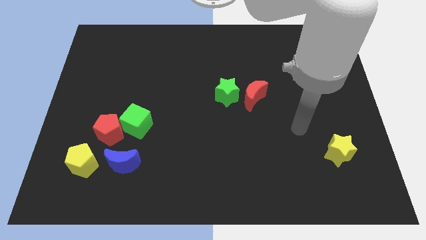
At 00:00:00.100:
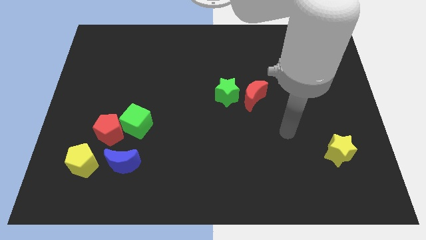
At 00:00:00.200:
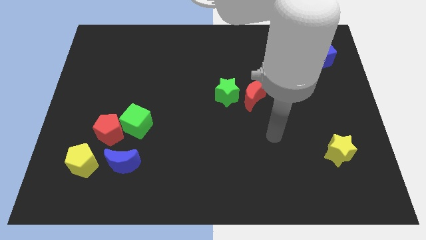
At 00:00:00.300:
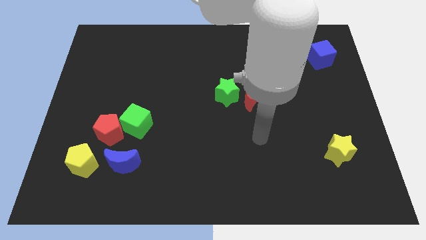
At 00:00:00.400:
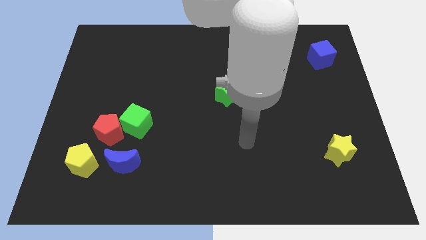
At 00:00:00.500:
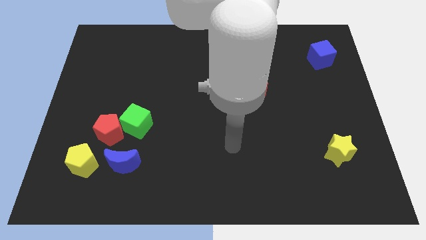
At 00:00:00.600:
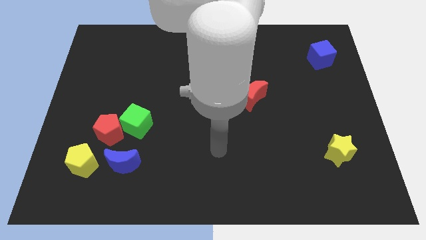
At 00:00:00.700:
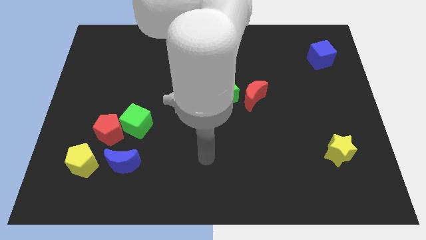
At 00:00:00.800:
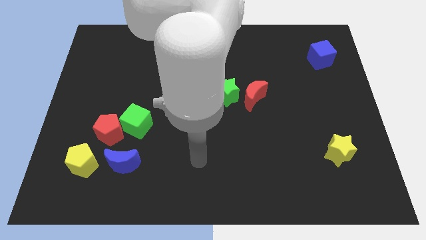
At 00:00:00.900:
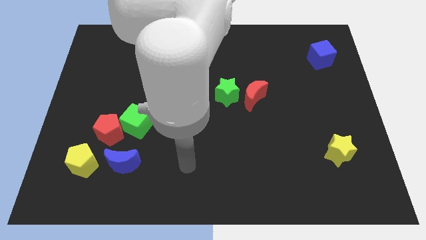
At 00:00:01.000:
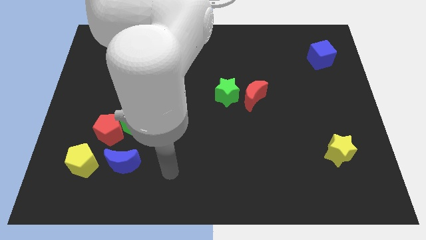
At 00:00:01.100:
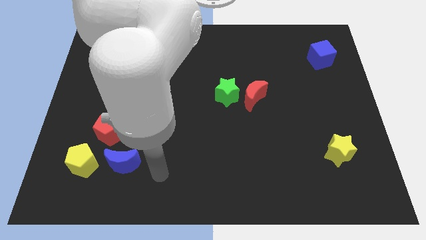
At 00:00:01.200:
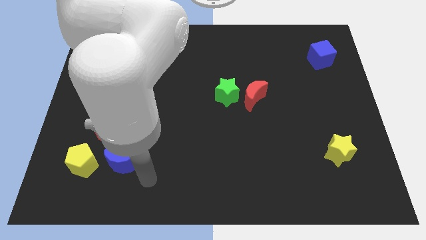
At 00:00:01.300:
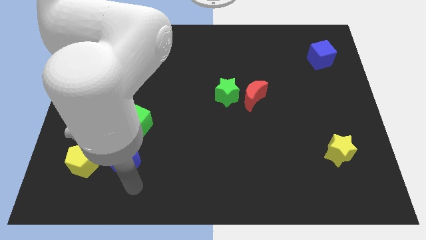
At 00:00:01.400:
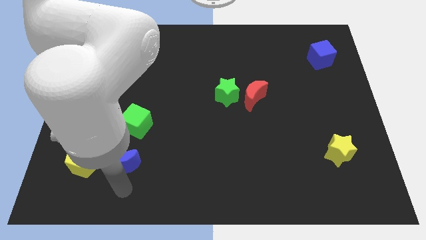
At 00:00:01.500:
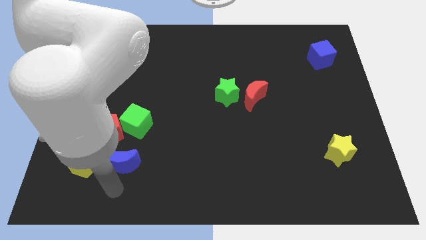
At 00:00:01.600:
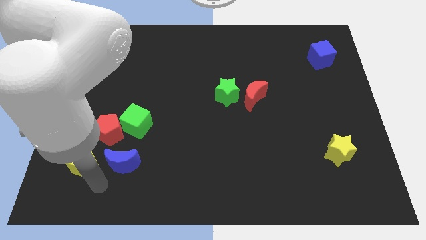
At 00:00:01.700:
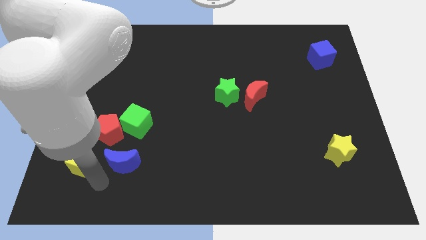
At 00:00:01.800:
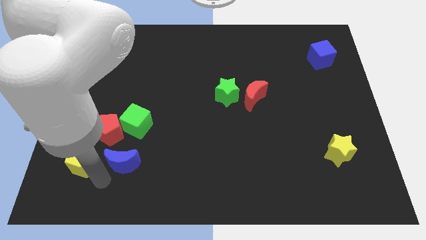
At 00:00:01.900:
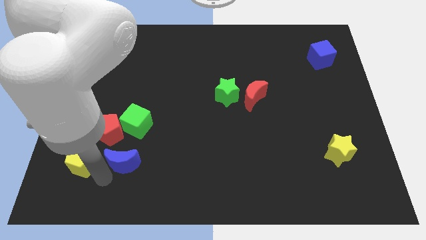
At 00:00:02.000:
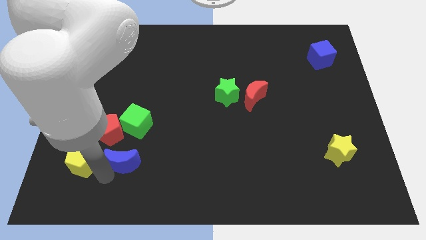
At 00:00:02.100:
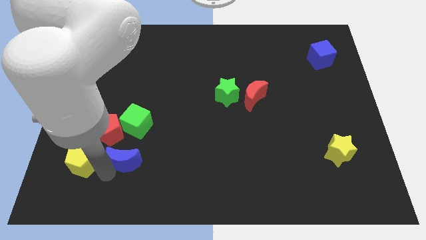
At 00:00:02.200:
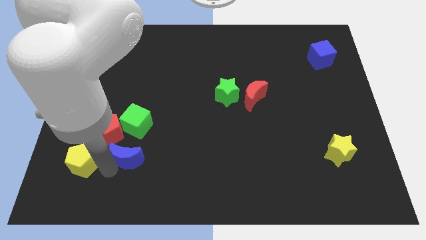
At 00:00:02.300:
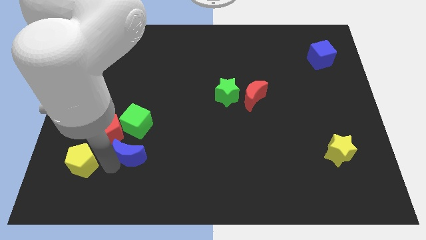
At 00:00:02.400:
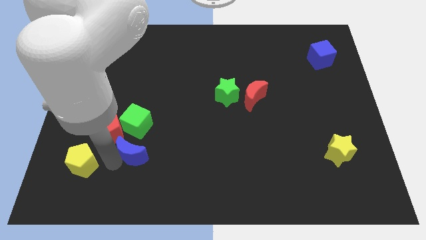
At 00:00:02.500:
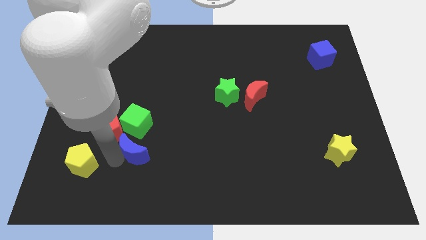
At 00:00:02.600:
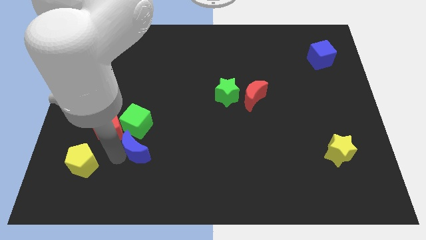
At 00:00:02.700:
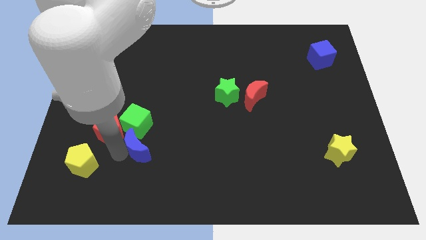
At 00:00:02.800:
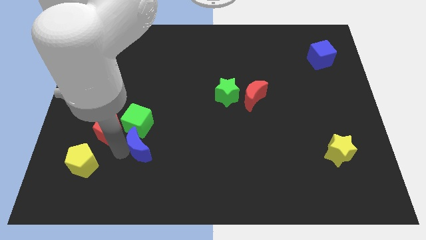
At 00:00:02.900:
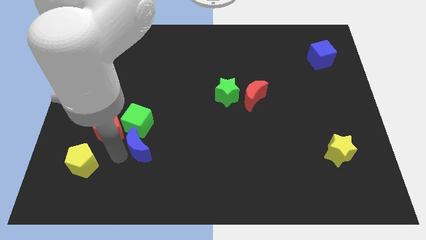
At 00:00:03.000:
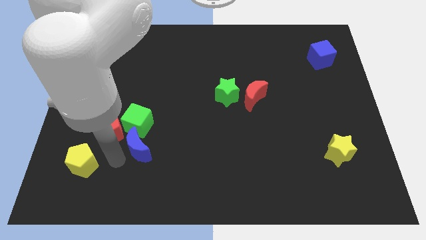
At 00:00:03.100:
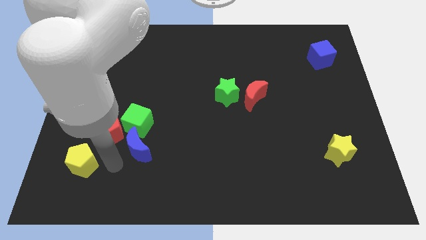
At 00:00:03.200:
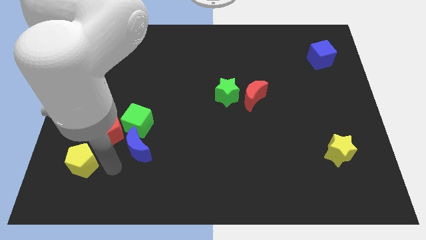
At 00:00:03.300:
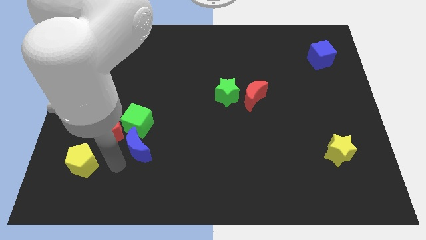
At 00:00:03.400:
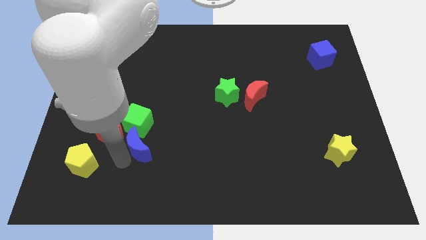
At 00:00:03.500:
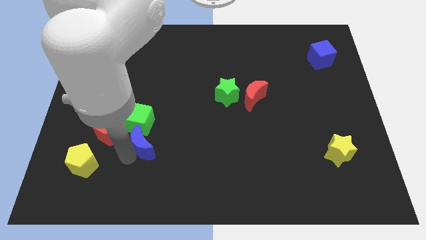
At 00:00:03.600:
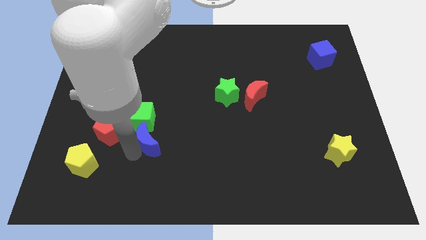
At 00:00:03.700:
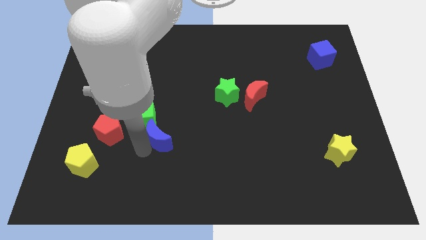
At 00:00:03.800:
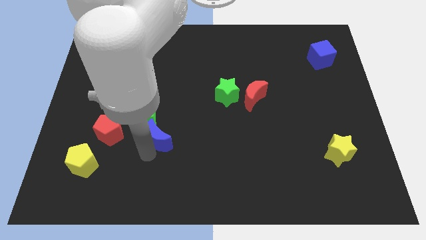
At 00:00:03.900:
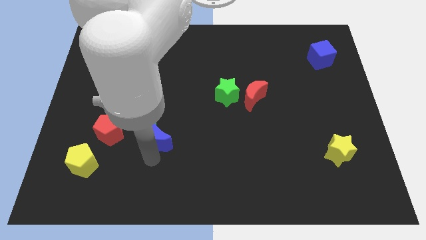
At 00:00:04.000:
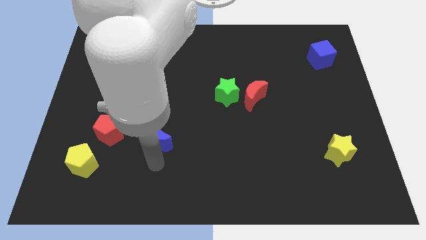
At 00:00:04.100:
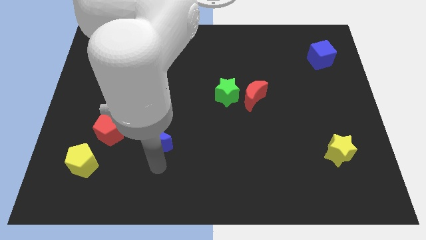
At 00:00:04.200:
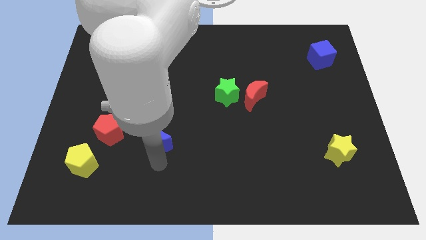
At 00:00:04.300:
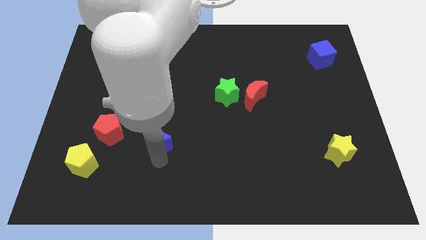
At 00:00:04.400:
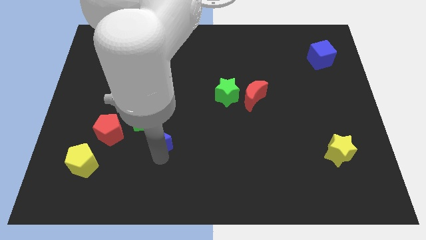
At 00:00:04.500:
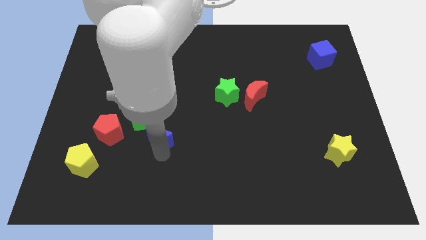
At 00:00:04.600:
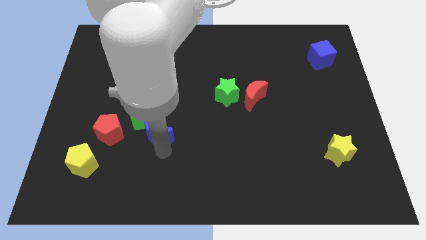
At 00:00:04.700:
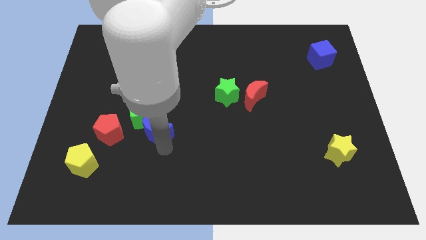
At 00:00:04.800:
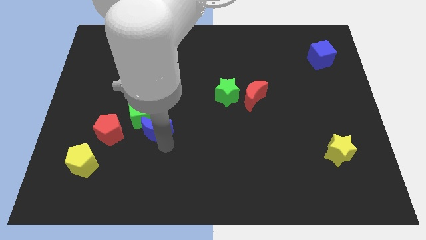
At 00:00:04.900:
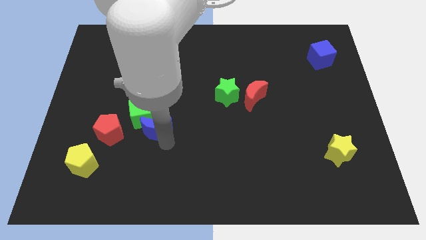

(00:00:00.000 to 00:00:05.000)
push the blue moon a little up

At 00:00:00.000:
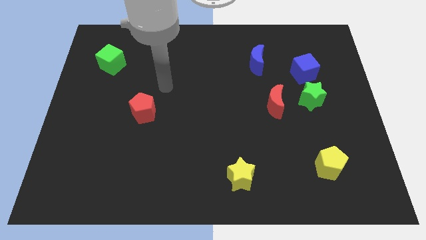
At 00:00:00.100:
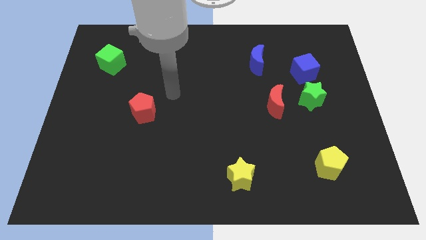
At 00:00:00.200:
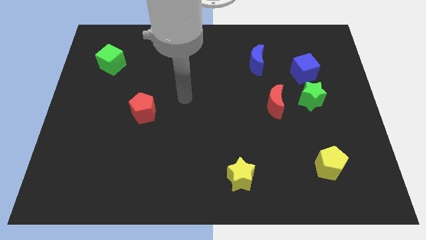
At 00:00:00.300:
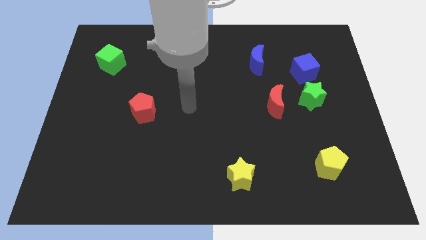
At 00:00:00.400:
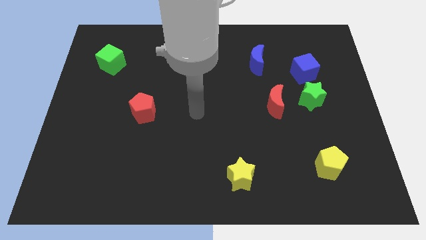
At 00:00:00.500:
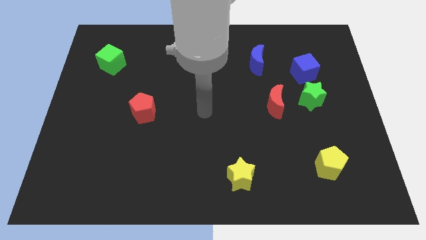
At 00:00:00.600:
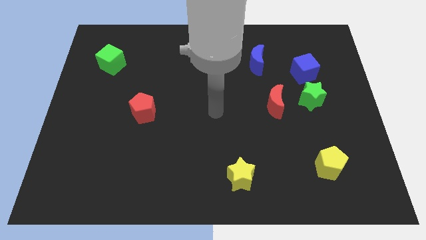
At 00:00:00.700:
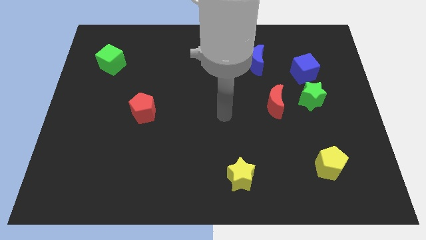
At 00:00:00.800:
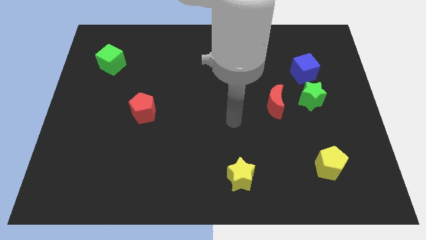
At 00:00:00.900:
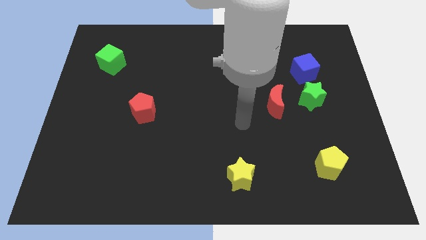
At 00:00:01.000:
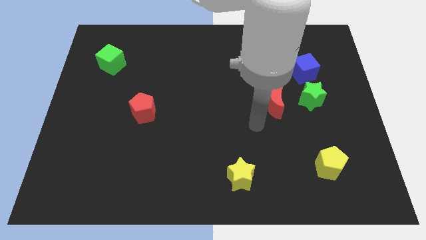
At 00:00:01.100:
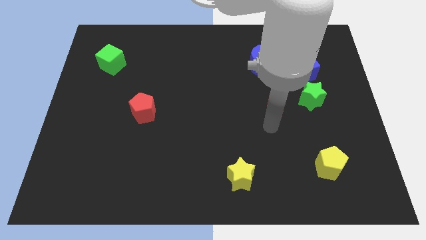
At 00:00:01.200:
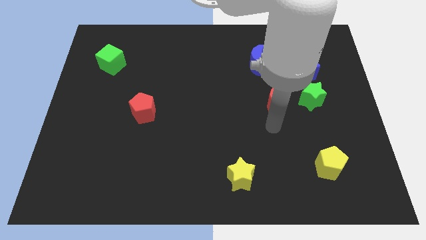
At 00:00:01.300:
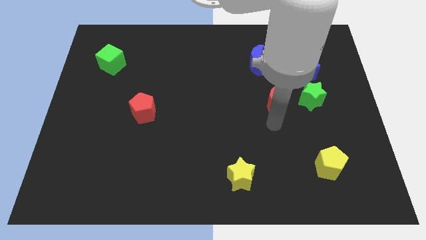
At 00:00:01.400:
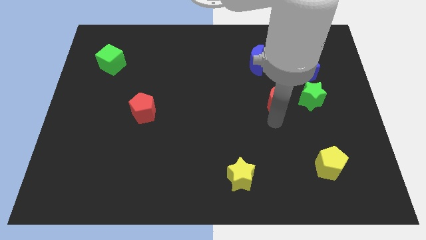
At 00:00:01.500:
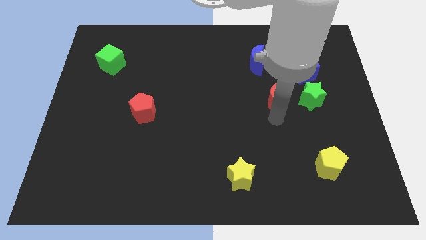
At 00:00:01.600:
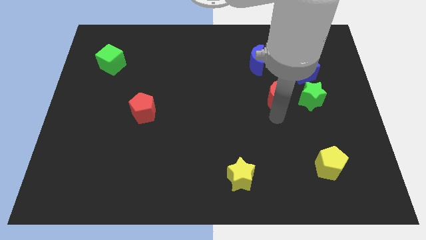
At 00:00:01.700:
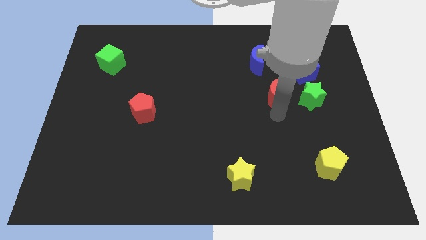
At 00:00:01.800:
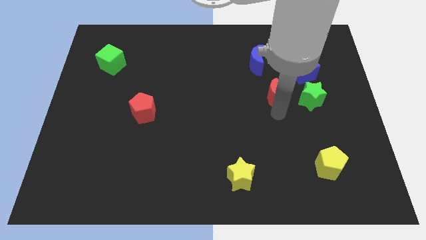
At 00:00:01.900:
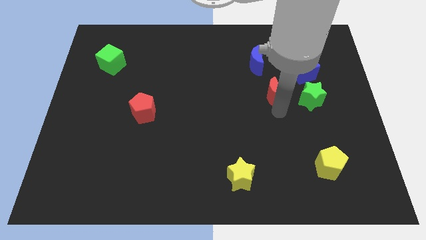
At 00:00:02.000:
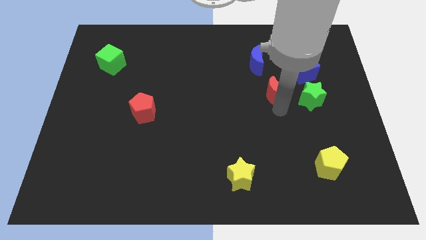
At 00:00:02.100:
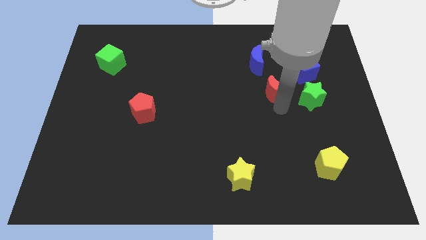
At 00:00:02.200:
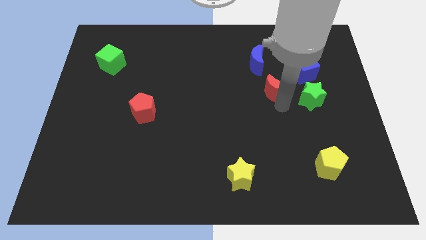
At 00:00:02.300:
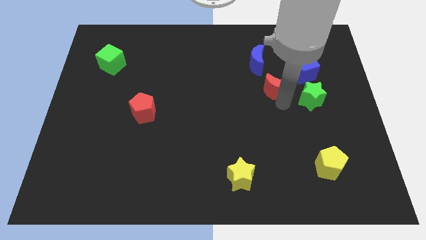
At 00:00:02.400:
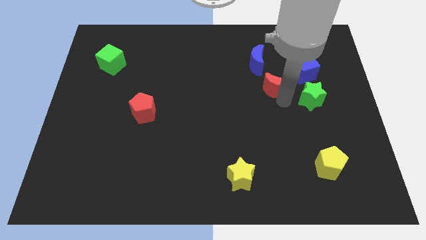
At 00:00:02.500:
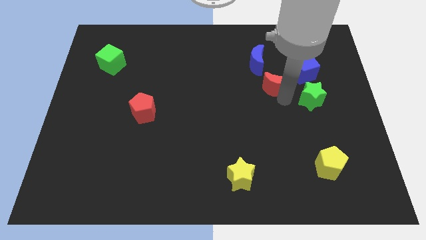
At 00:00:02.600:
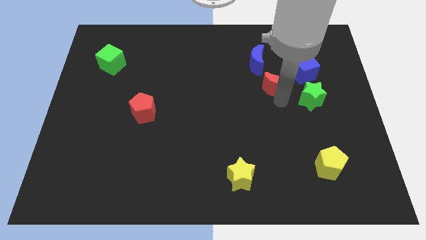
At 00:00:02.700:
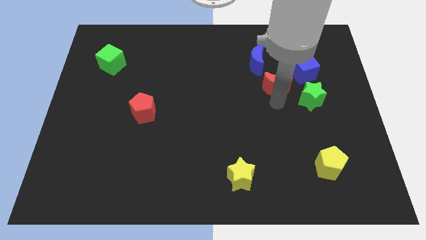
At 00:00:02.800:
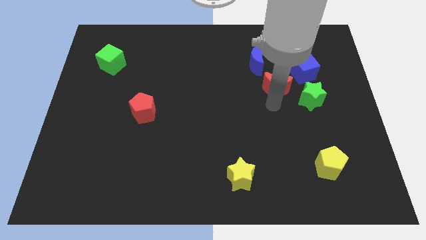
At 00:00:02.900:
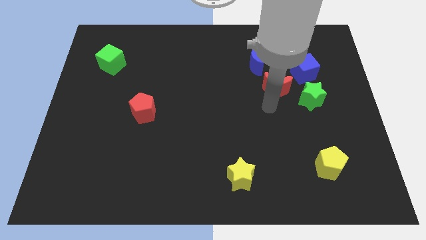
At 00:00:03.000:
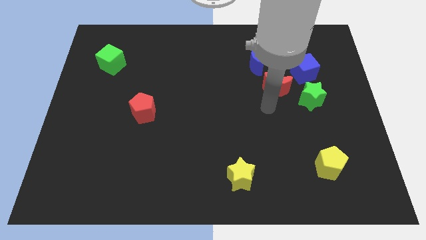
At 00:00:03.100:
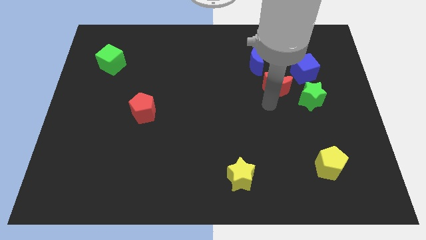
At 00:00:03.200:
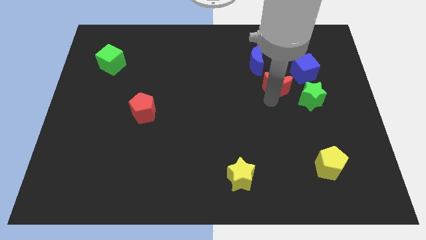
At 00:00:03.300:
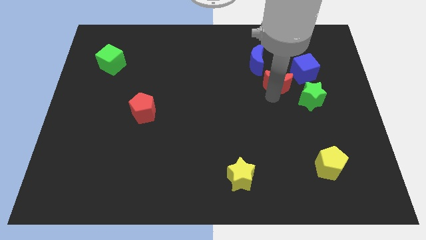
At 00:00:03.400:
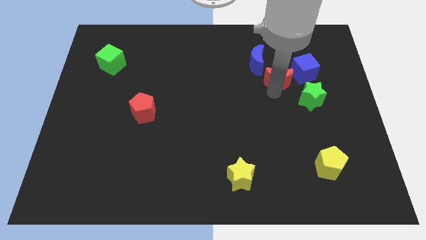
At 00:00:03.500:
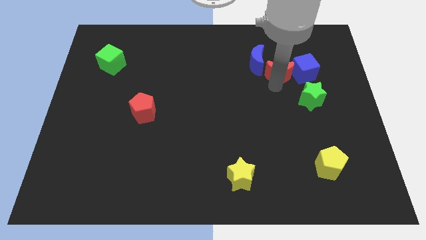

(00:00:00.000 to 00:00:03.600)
push the red moon a little bit upwards and to the right
